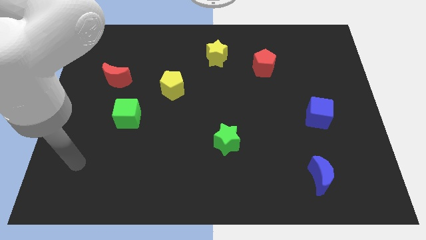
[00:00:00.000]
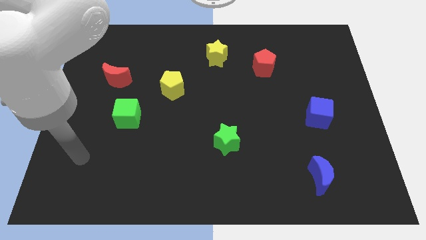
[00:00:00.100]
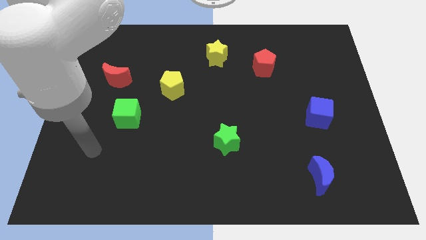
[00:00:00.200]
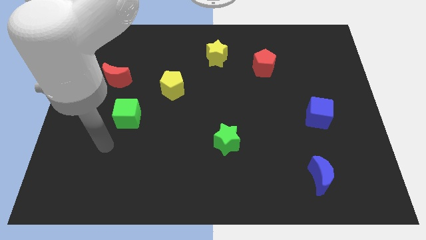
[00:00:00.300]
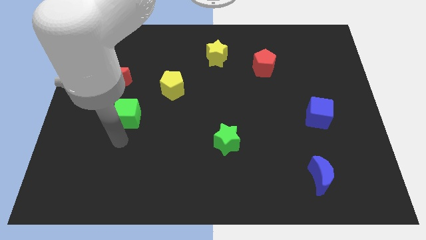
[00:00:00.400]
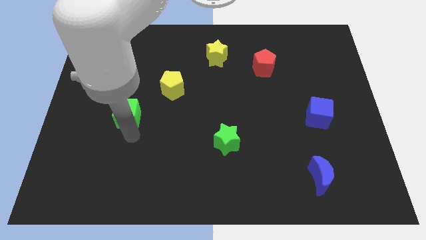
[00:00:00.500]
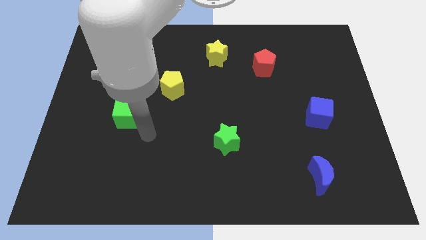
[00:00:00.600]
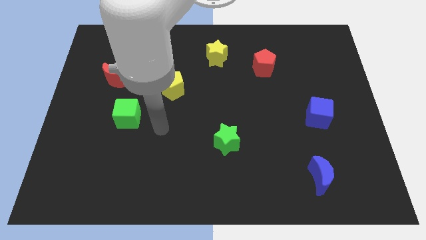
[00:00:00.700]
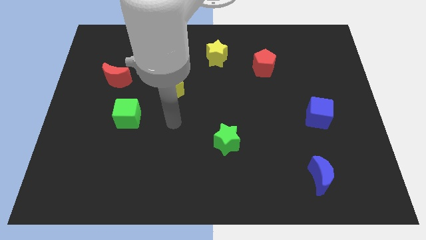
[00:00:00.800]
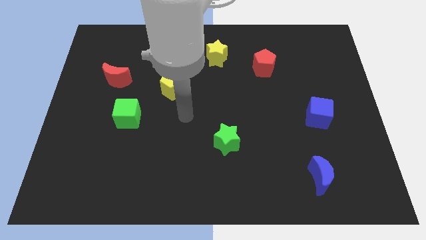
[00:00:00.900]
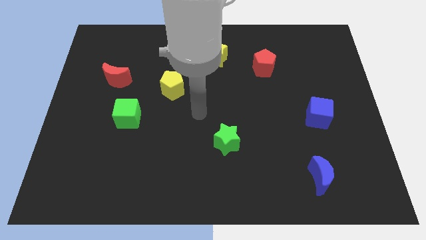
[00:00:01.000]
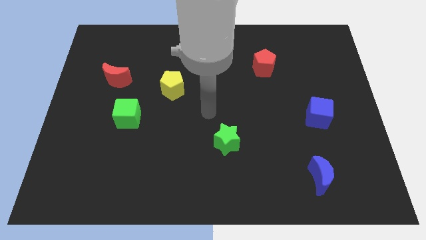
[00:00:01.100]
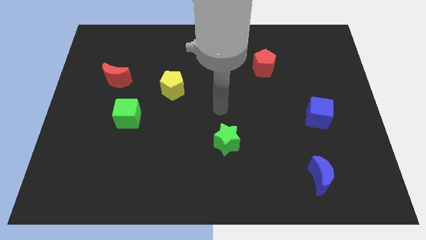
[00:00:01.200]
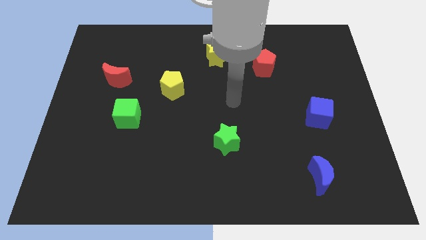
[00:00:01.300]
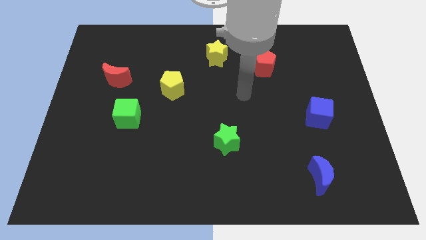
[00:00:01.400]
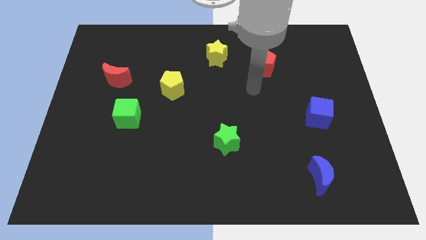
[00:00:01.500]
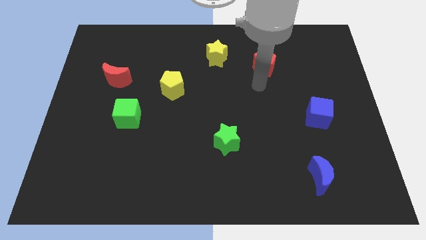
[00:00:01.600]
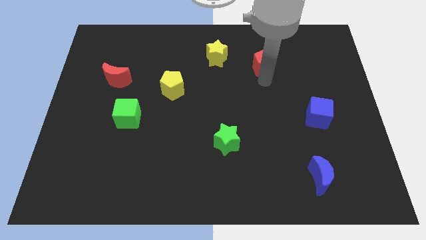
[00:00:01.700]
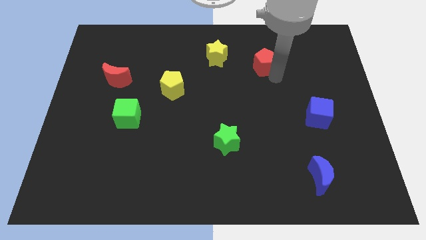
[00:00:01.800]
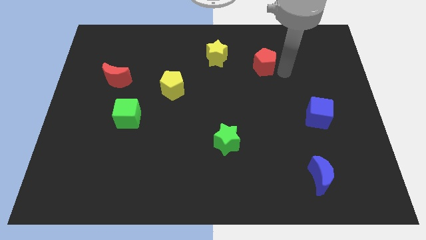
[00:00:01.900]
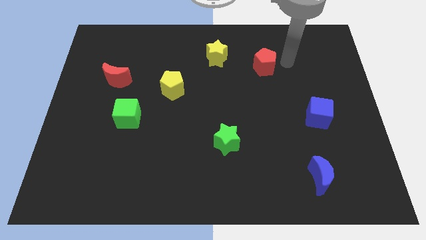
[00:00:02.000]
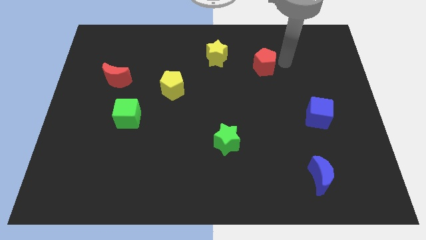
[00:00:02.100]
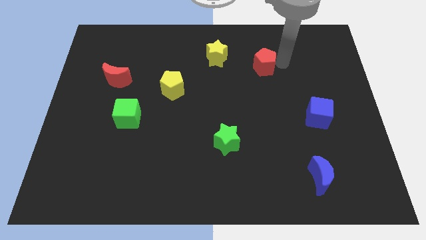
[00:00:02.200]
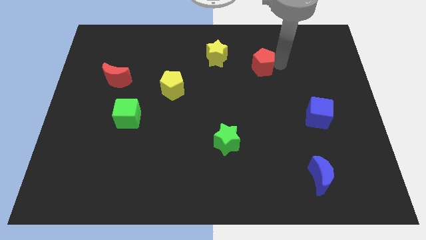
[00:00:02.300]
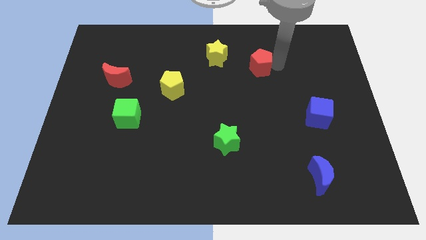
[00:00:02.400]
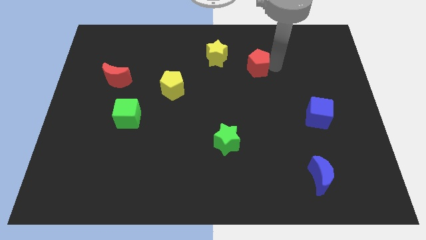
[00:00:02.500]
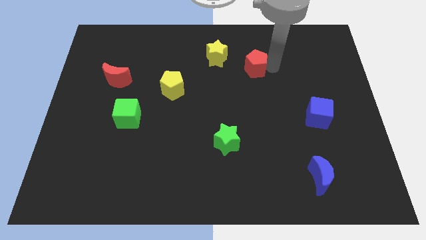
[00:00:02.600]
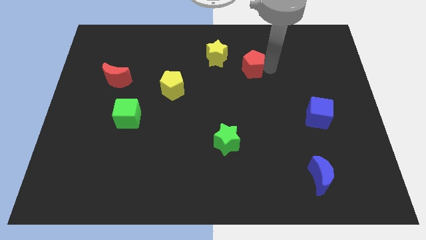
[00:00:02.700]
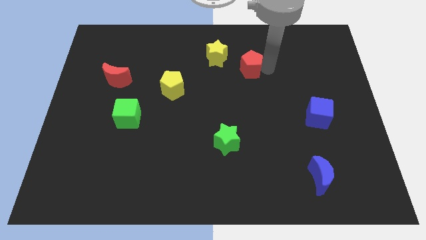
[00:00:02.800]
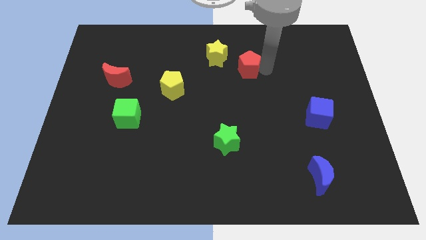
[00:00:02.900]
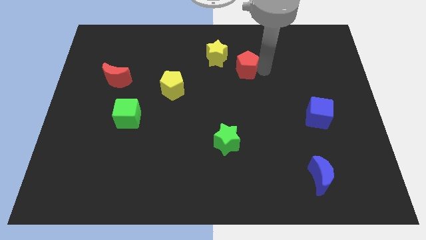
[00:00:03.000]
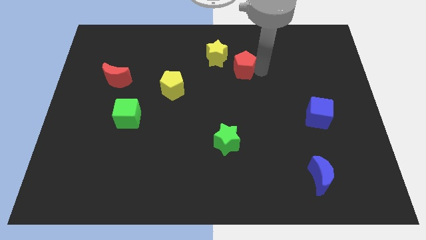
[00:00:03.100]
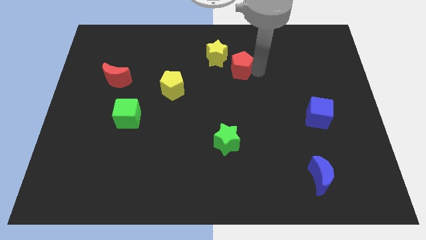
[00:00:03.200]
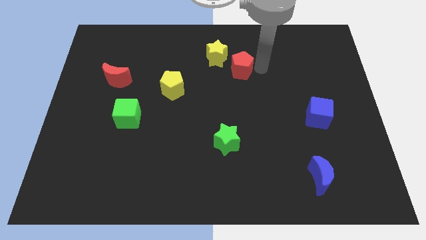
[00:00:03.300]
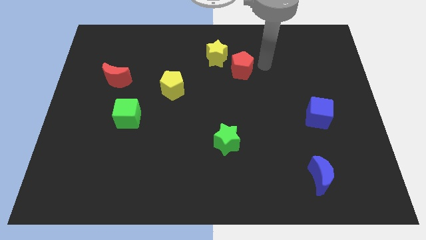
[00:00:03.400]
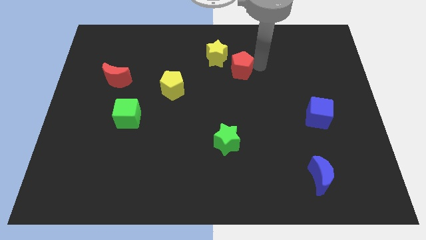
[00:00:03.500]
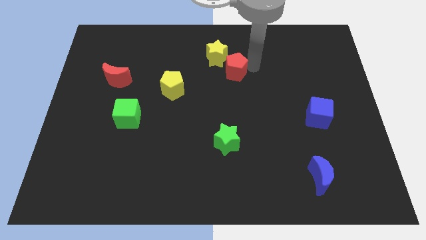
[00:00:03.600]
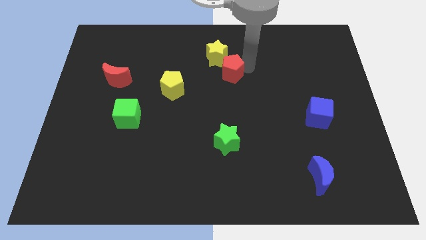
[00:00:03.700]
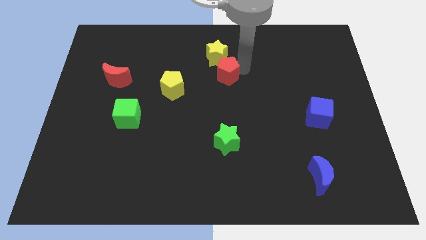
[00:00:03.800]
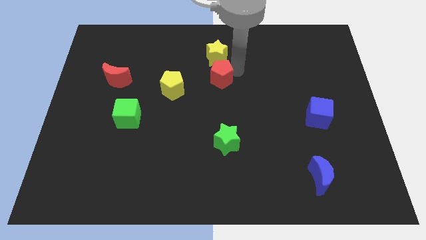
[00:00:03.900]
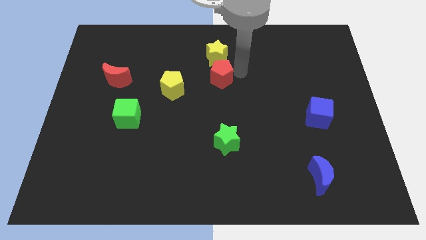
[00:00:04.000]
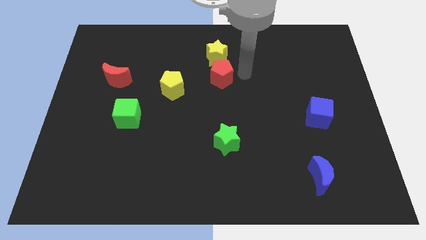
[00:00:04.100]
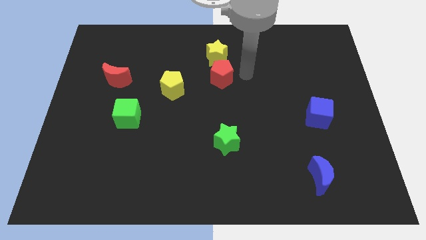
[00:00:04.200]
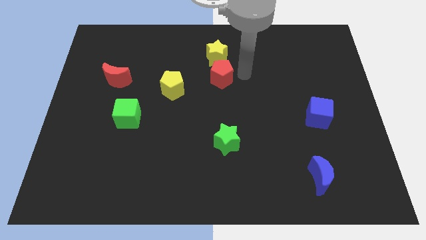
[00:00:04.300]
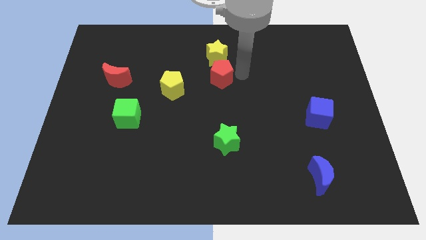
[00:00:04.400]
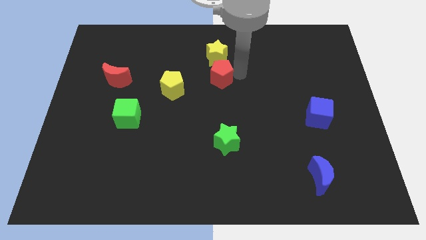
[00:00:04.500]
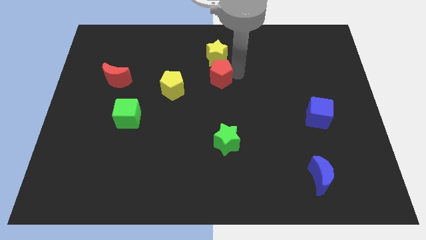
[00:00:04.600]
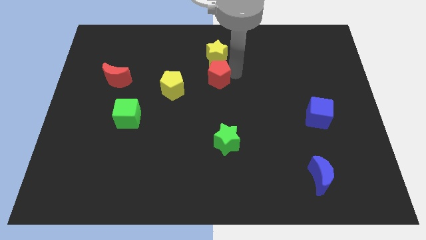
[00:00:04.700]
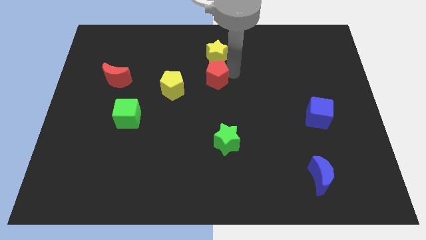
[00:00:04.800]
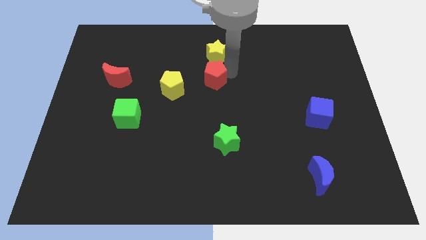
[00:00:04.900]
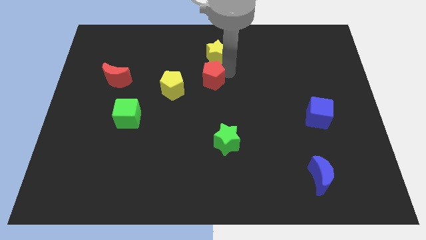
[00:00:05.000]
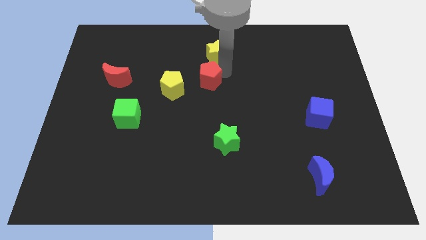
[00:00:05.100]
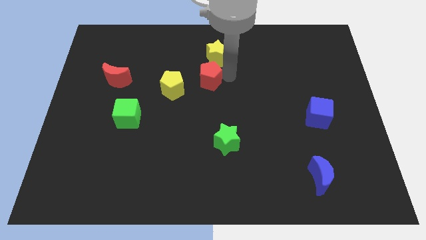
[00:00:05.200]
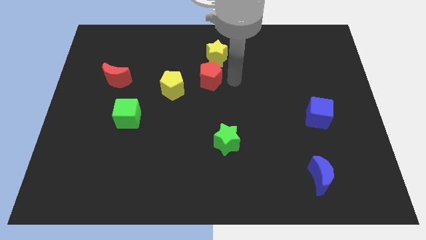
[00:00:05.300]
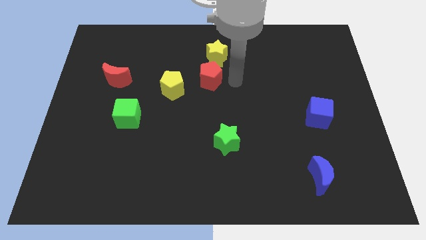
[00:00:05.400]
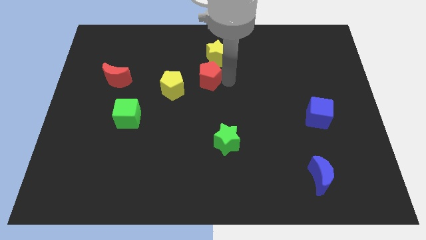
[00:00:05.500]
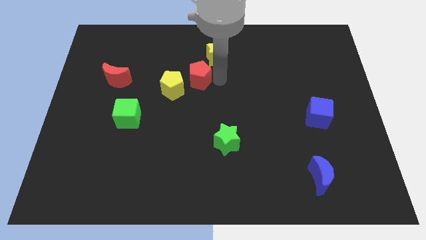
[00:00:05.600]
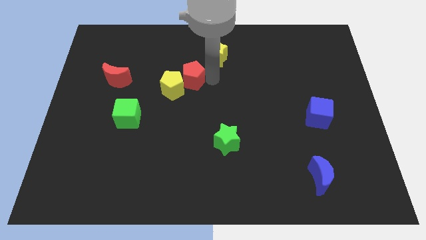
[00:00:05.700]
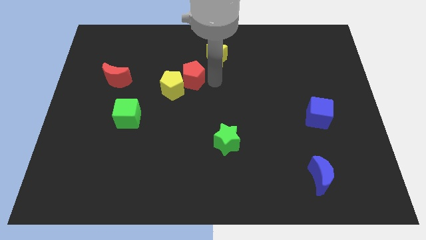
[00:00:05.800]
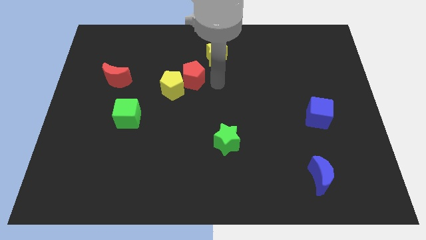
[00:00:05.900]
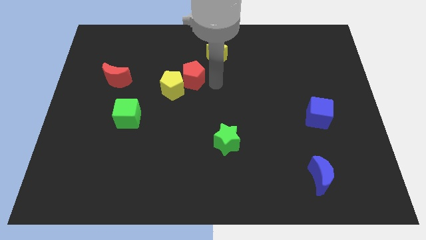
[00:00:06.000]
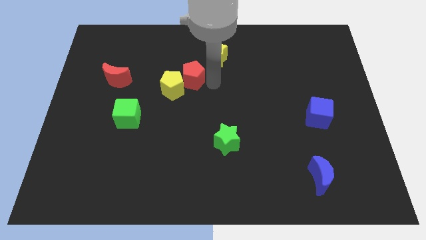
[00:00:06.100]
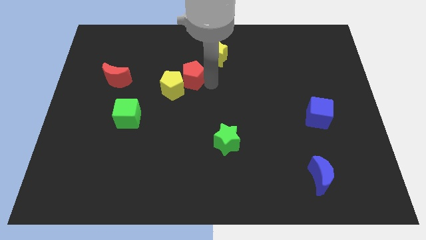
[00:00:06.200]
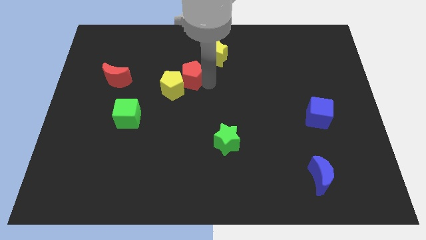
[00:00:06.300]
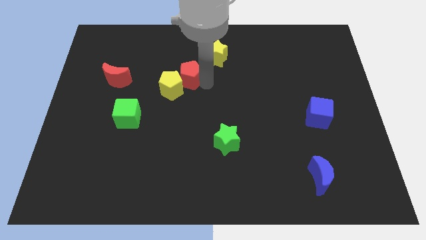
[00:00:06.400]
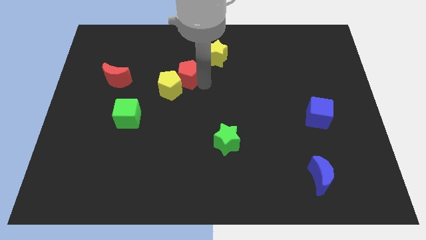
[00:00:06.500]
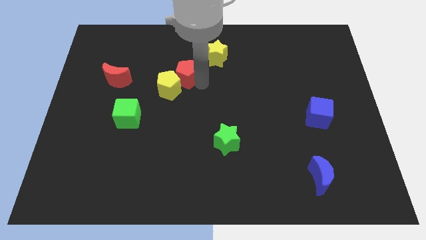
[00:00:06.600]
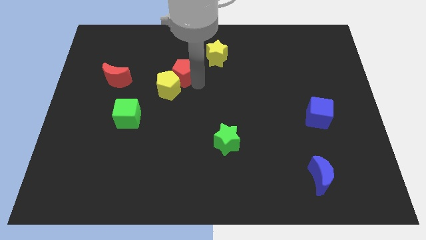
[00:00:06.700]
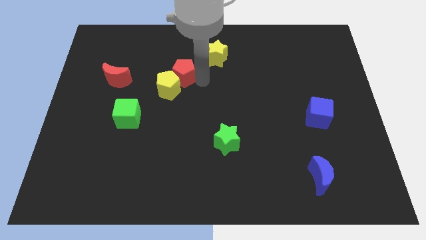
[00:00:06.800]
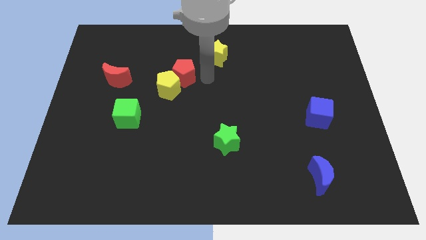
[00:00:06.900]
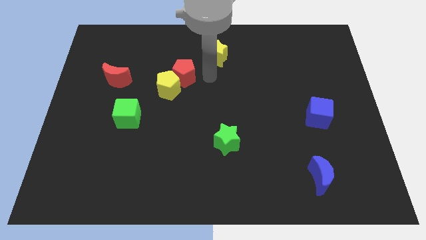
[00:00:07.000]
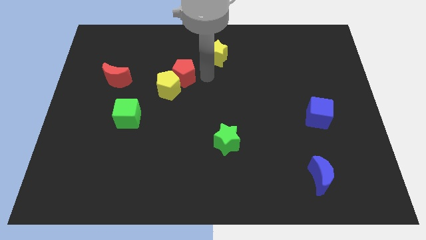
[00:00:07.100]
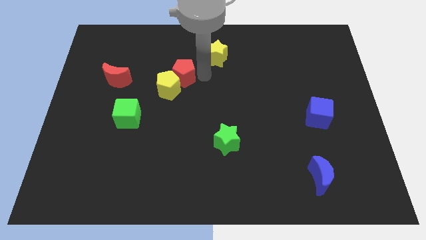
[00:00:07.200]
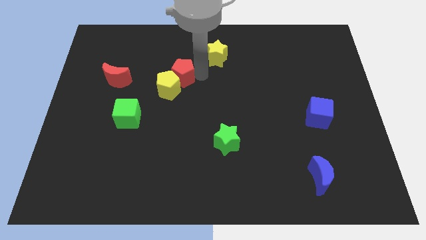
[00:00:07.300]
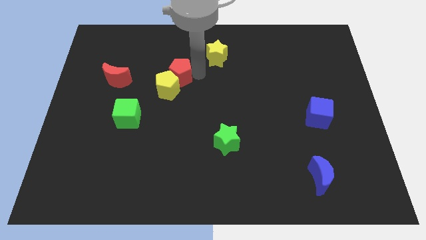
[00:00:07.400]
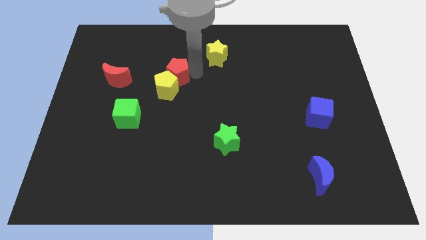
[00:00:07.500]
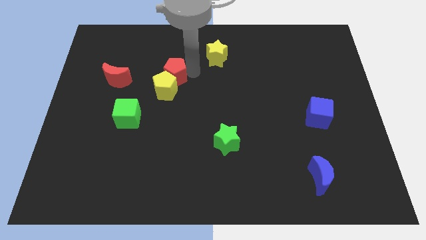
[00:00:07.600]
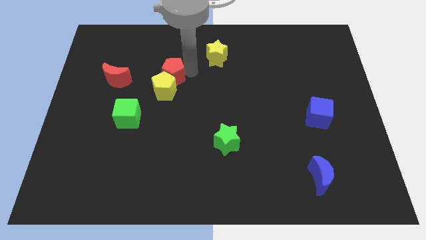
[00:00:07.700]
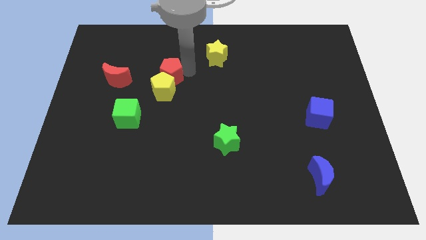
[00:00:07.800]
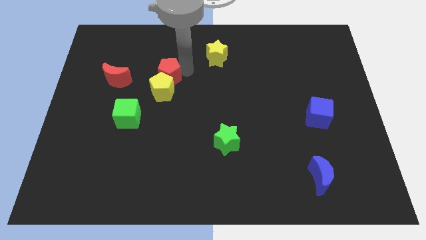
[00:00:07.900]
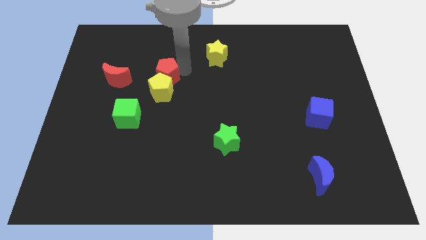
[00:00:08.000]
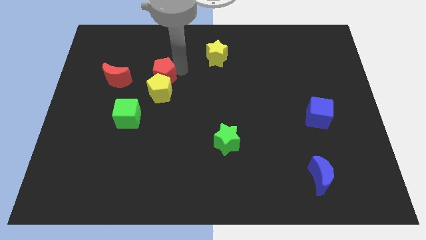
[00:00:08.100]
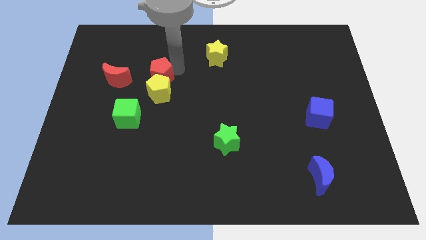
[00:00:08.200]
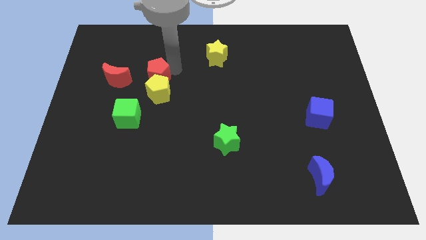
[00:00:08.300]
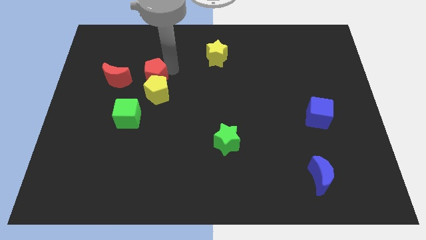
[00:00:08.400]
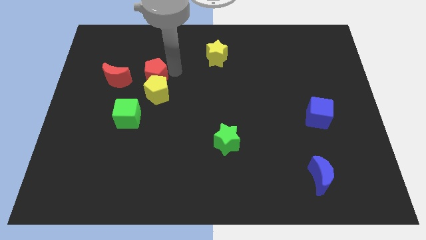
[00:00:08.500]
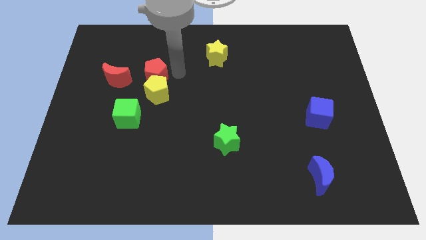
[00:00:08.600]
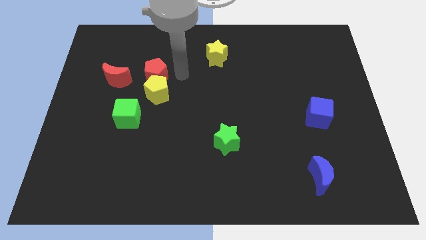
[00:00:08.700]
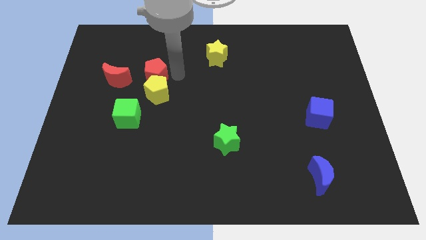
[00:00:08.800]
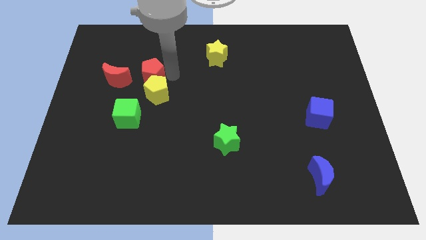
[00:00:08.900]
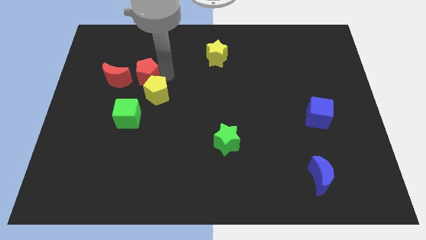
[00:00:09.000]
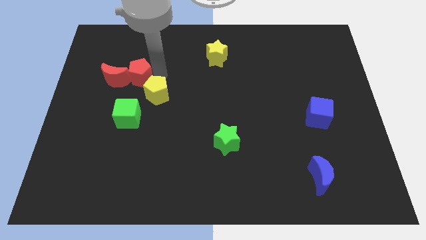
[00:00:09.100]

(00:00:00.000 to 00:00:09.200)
push the red pentagon close to the red moon
